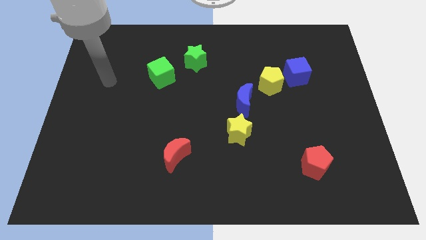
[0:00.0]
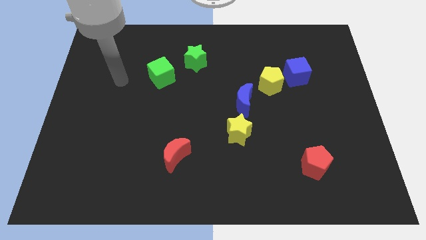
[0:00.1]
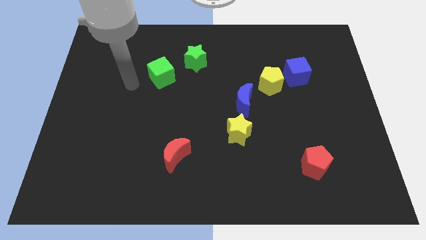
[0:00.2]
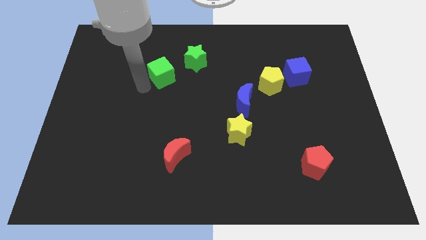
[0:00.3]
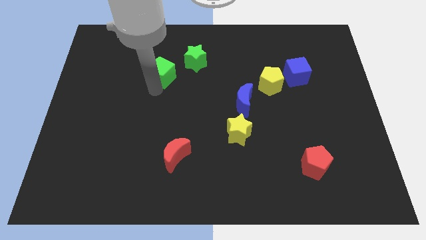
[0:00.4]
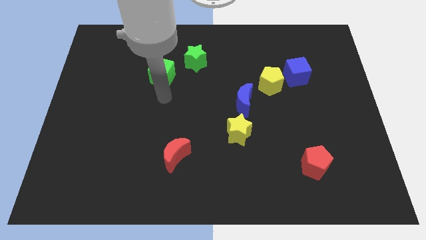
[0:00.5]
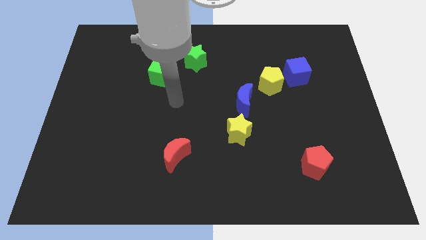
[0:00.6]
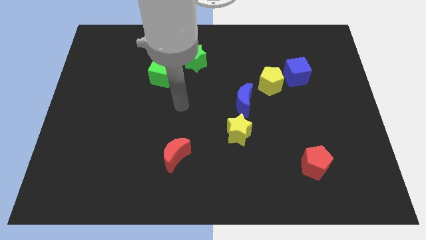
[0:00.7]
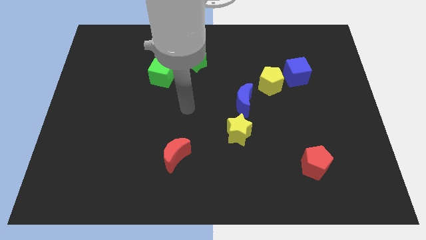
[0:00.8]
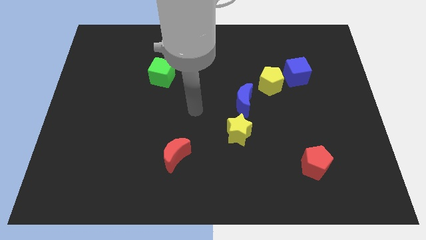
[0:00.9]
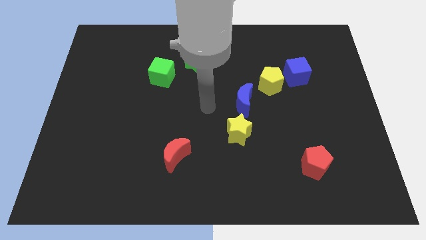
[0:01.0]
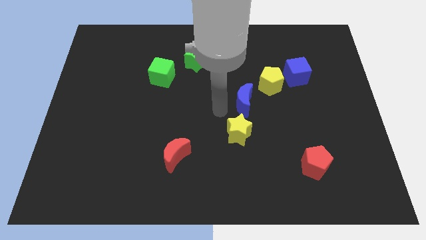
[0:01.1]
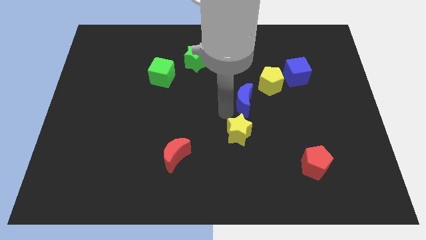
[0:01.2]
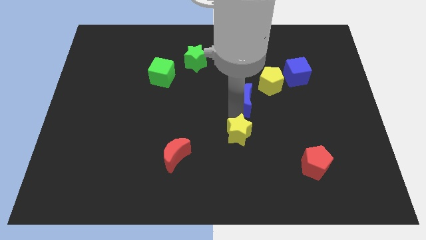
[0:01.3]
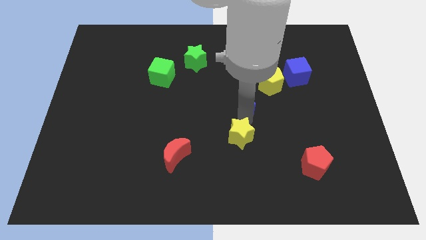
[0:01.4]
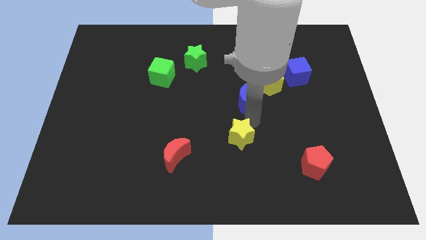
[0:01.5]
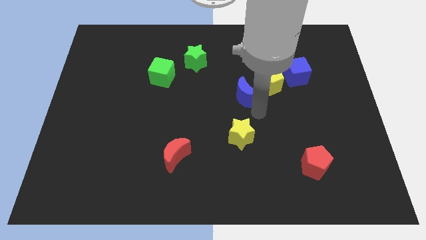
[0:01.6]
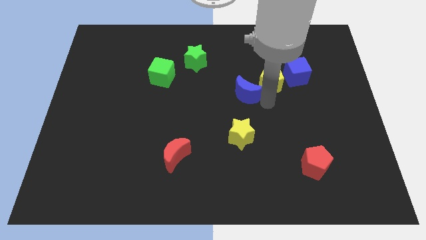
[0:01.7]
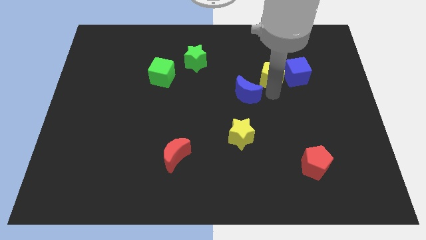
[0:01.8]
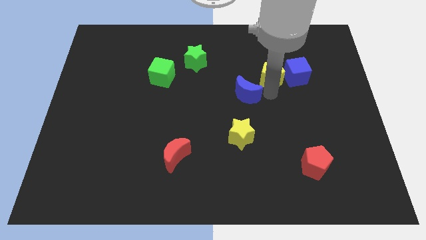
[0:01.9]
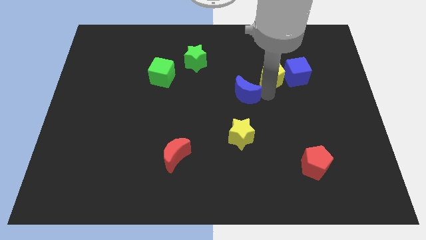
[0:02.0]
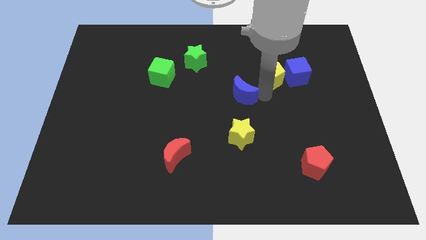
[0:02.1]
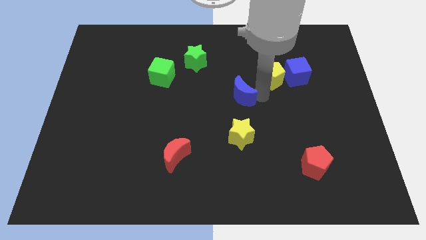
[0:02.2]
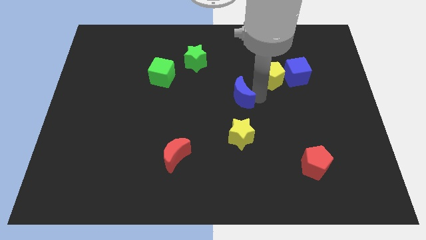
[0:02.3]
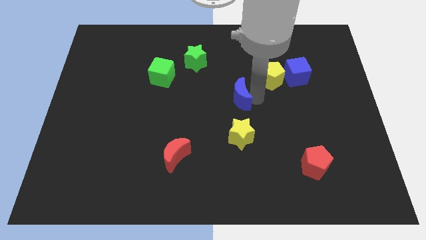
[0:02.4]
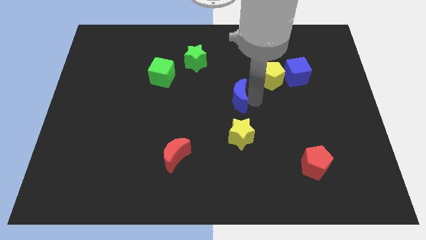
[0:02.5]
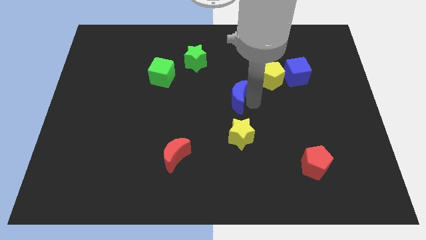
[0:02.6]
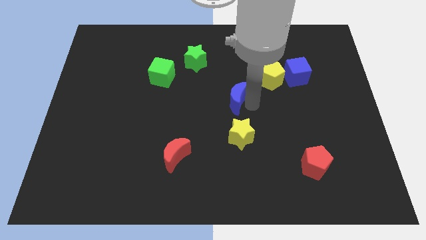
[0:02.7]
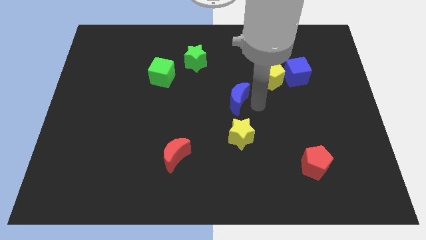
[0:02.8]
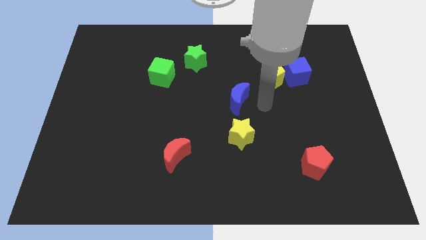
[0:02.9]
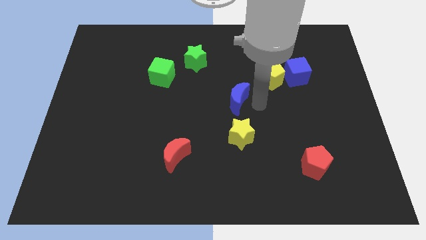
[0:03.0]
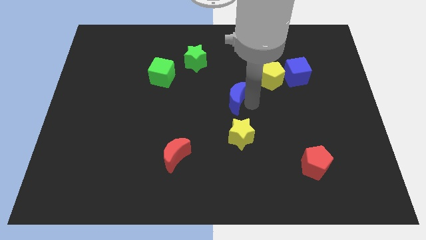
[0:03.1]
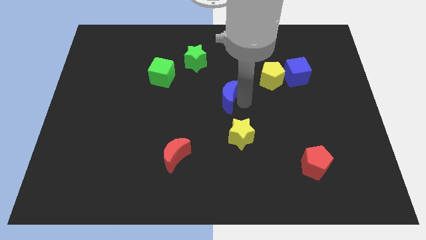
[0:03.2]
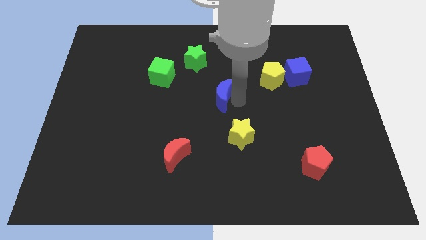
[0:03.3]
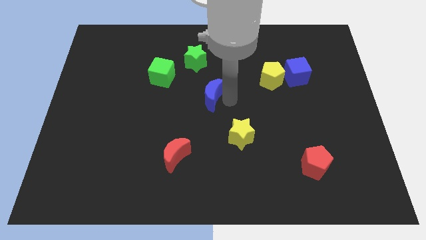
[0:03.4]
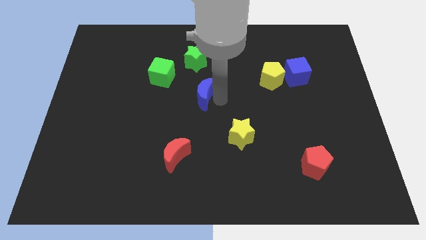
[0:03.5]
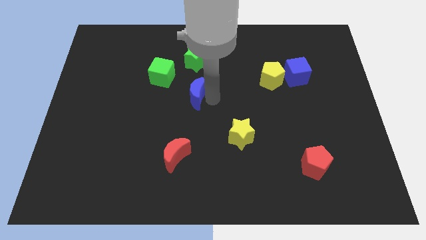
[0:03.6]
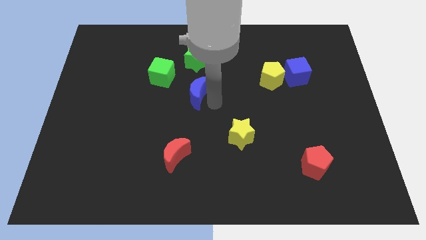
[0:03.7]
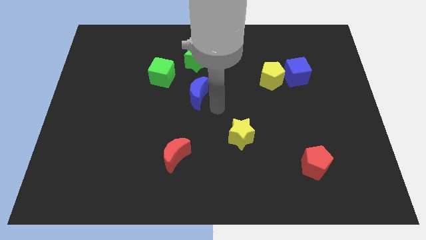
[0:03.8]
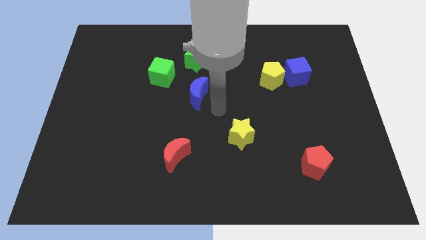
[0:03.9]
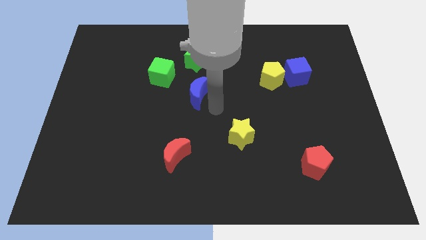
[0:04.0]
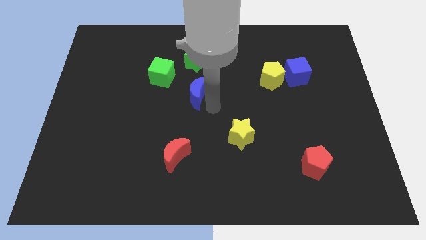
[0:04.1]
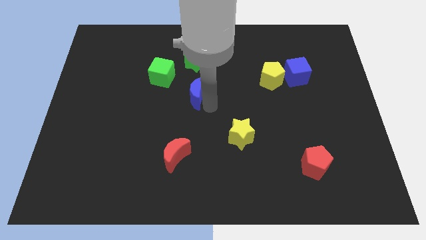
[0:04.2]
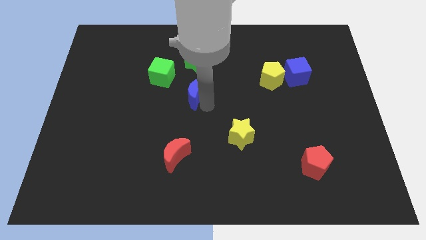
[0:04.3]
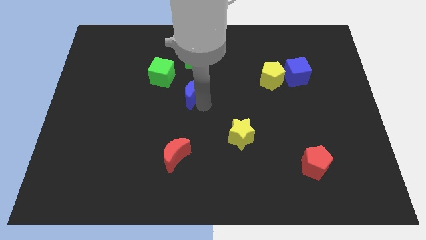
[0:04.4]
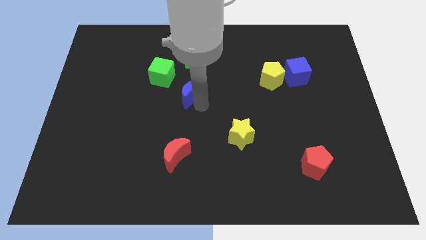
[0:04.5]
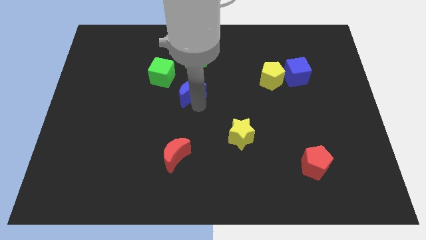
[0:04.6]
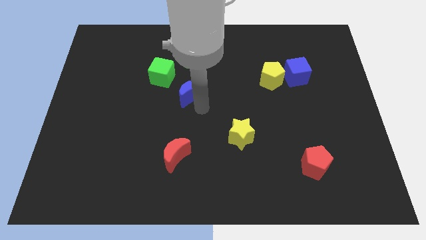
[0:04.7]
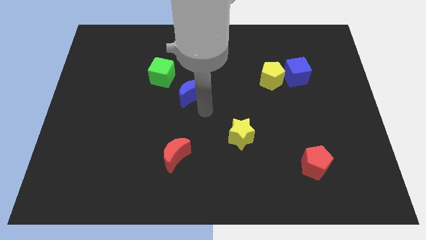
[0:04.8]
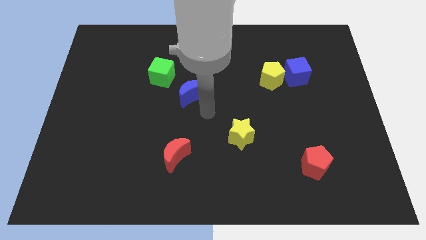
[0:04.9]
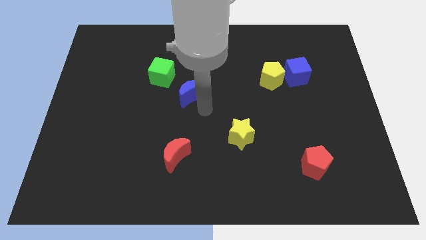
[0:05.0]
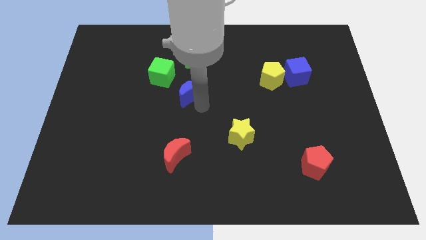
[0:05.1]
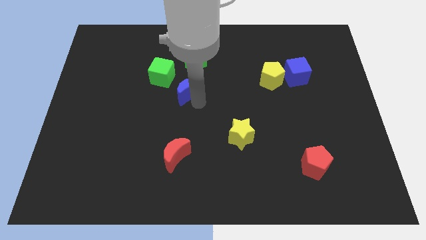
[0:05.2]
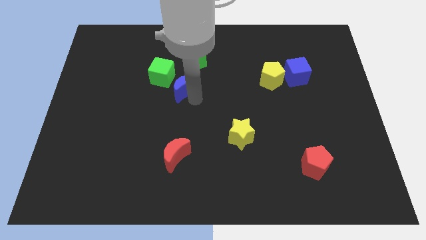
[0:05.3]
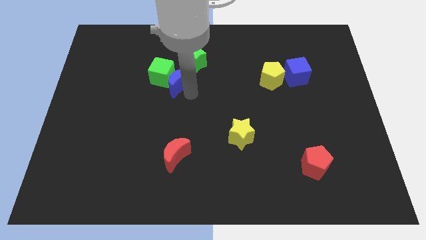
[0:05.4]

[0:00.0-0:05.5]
move the blue moon to the green cube
